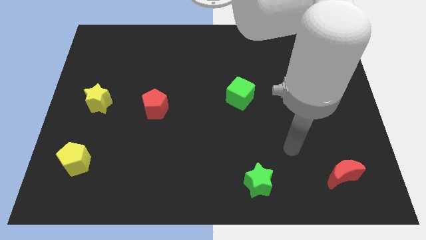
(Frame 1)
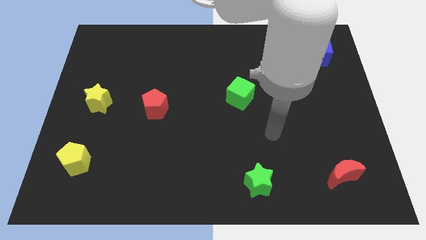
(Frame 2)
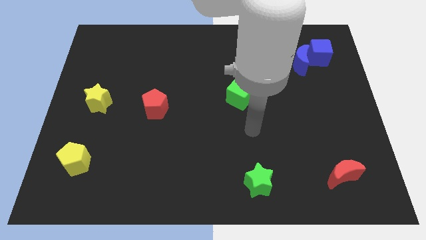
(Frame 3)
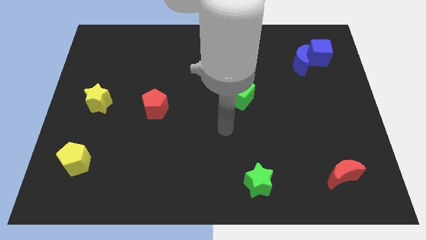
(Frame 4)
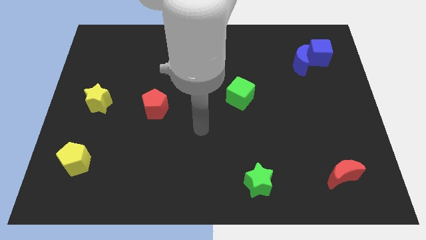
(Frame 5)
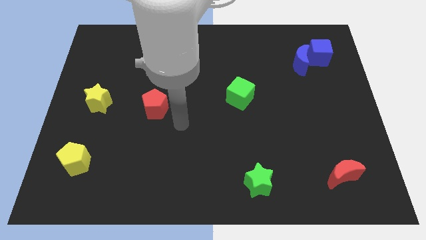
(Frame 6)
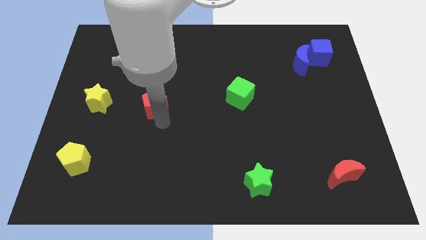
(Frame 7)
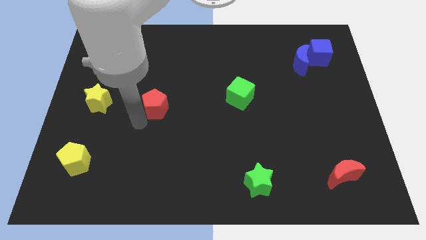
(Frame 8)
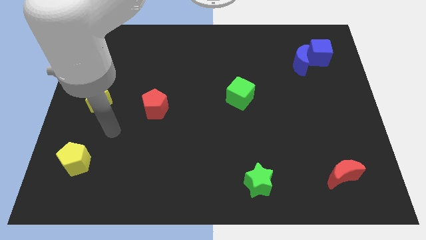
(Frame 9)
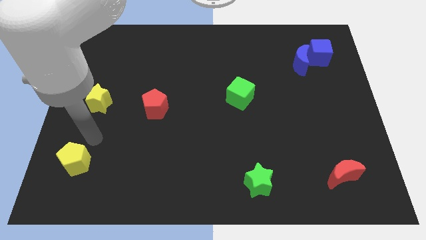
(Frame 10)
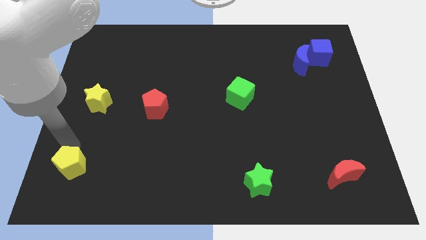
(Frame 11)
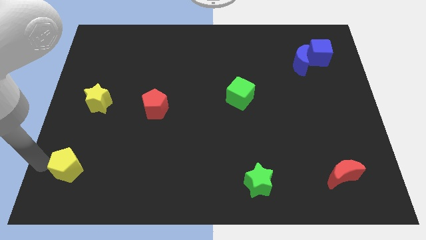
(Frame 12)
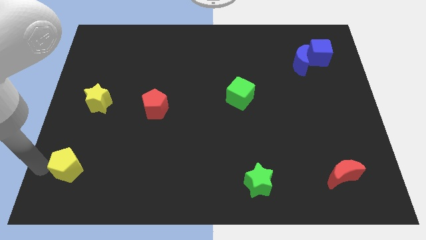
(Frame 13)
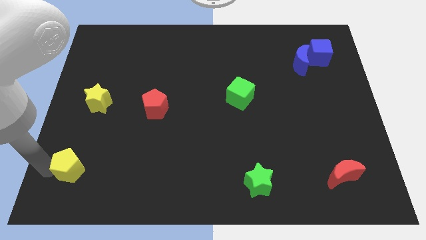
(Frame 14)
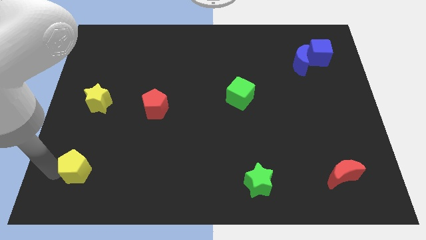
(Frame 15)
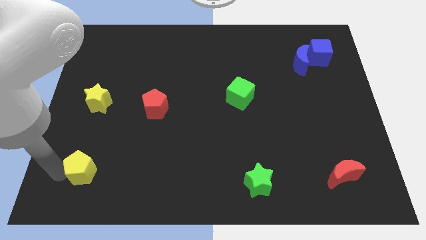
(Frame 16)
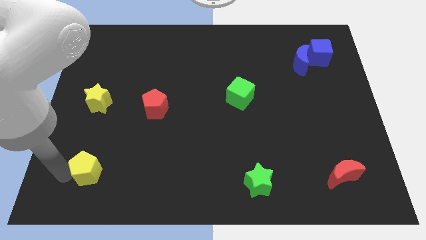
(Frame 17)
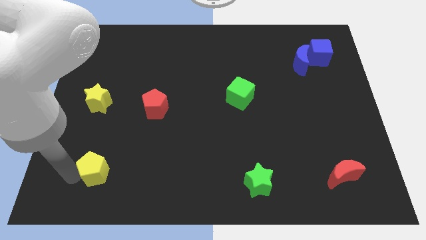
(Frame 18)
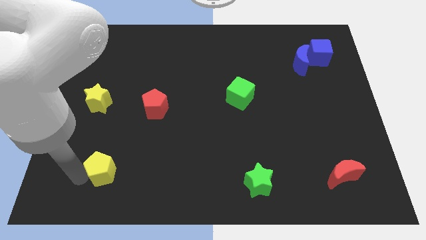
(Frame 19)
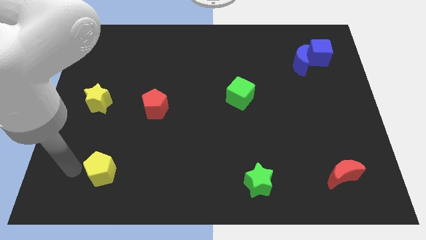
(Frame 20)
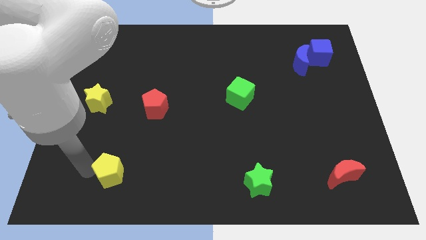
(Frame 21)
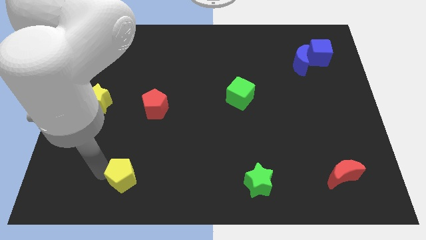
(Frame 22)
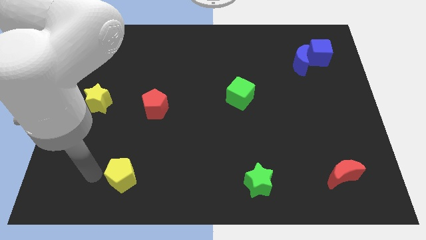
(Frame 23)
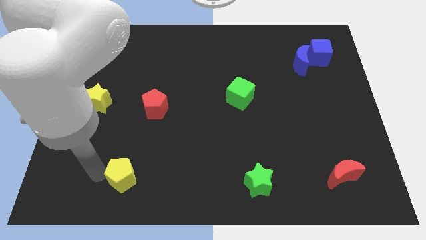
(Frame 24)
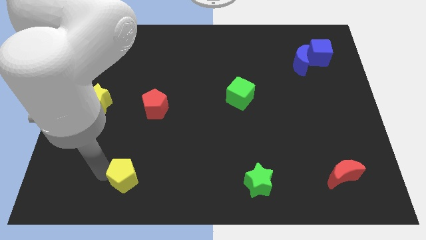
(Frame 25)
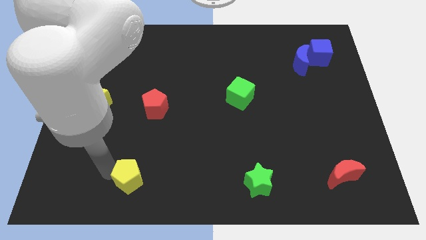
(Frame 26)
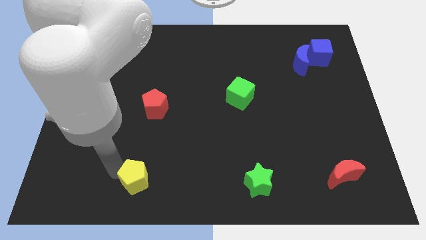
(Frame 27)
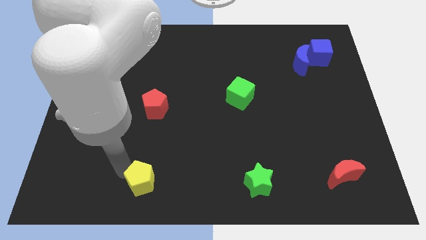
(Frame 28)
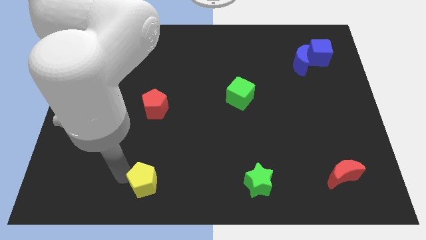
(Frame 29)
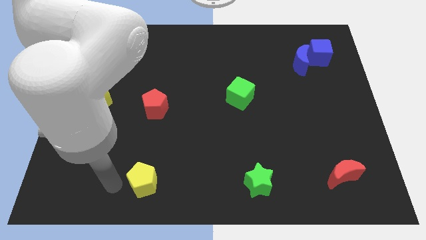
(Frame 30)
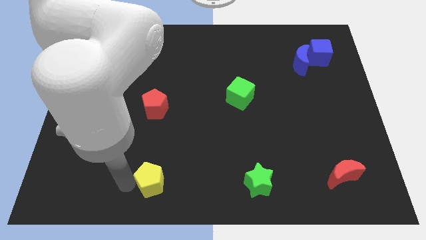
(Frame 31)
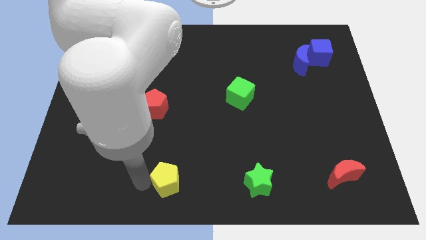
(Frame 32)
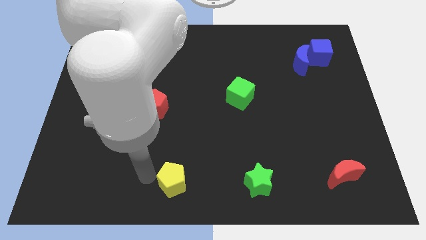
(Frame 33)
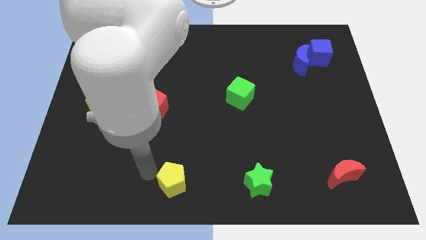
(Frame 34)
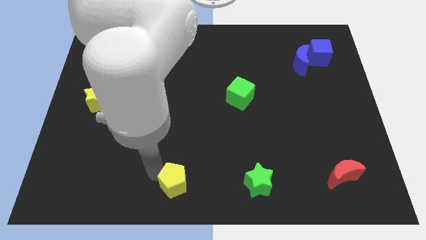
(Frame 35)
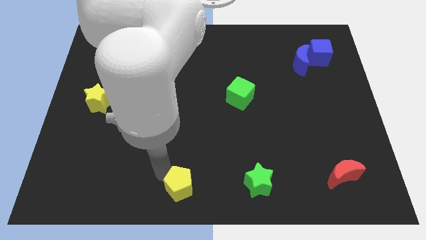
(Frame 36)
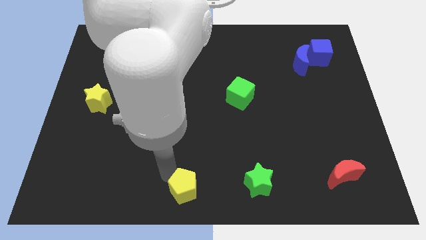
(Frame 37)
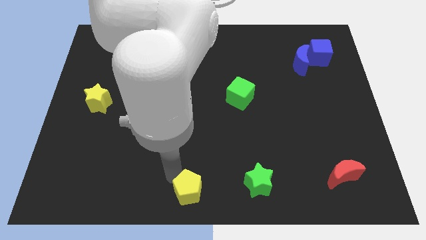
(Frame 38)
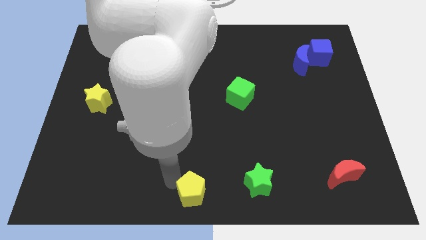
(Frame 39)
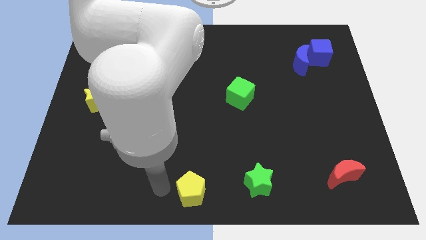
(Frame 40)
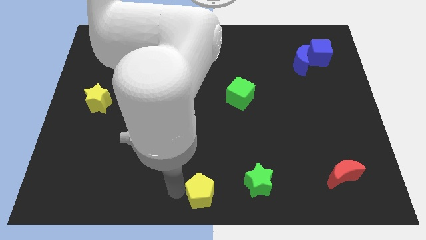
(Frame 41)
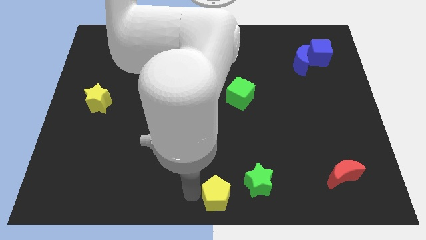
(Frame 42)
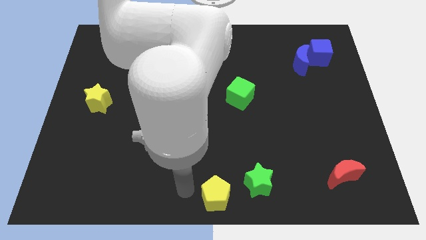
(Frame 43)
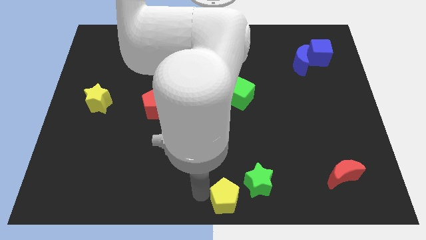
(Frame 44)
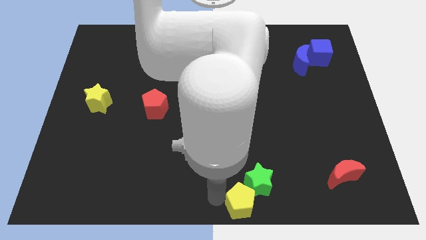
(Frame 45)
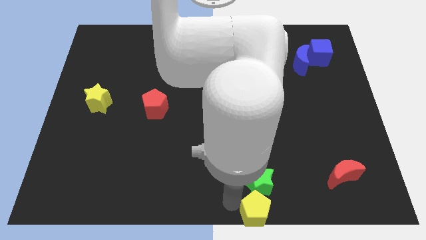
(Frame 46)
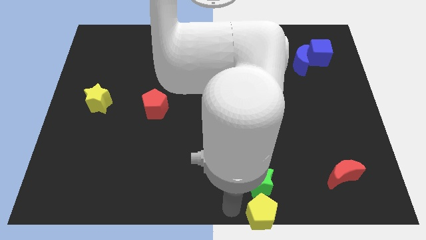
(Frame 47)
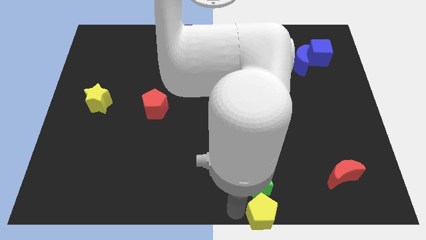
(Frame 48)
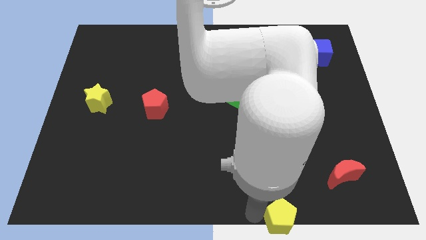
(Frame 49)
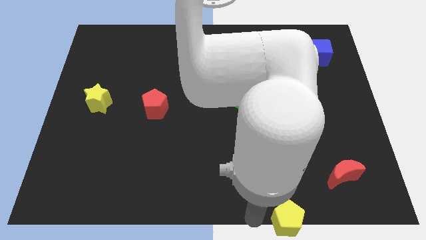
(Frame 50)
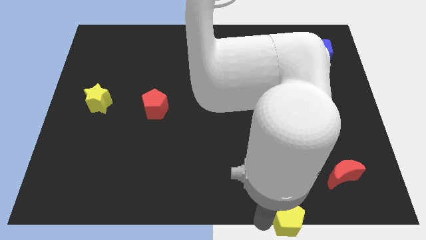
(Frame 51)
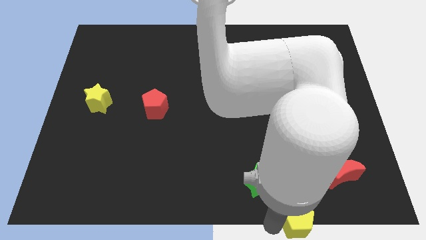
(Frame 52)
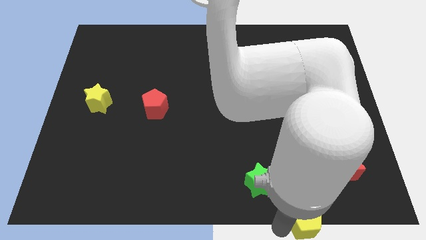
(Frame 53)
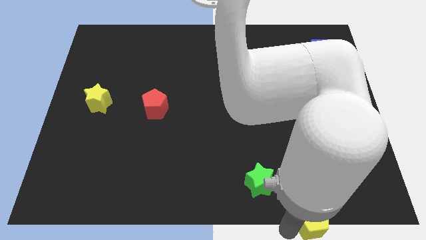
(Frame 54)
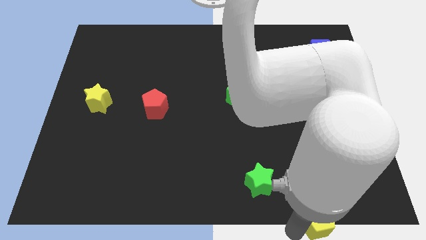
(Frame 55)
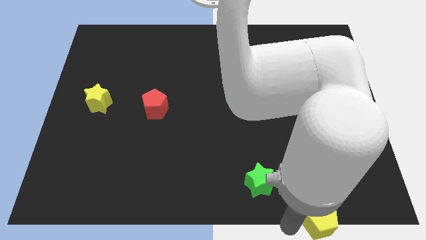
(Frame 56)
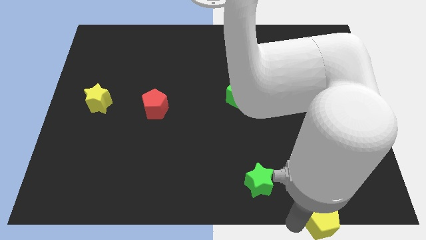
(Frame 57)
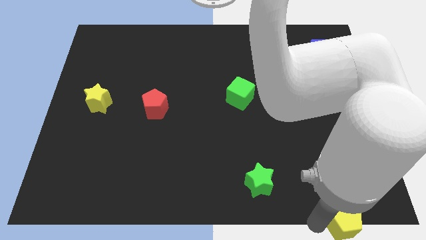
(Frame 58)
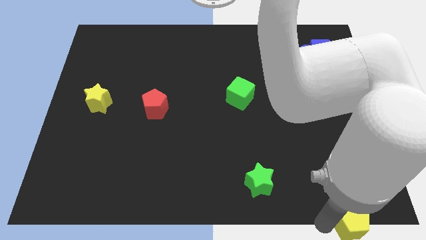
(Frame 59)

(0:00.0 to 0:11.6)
put the yellow pentagon to the bottom right corner

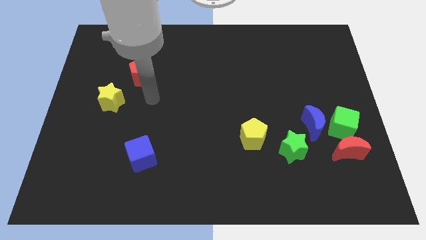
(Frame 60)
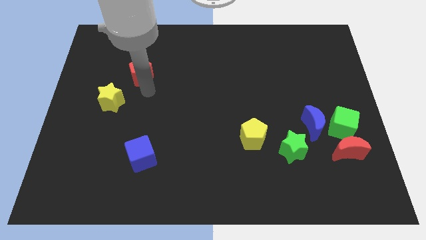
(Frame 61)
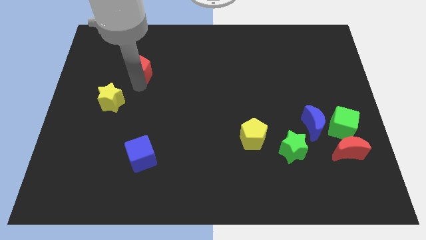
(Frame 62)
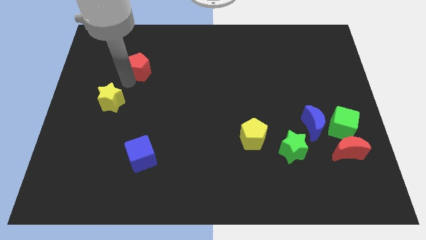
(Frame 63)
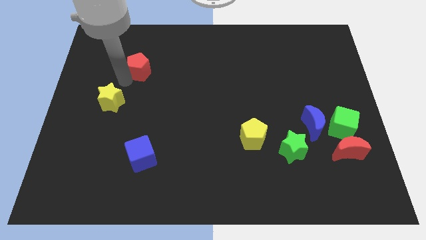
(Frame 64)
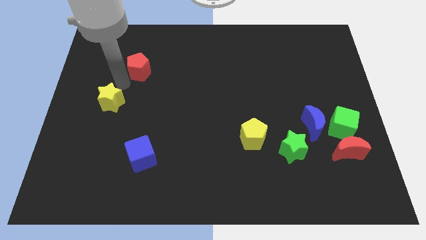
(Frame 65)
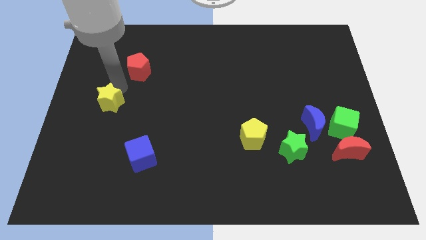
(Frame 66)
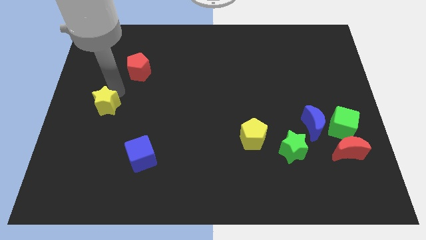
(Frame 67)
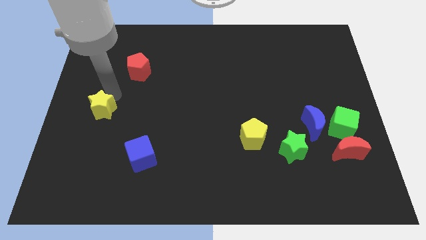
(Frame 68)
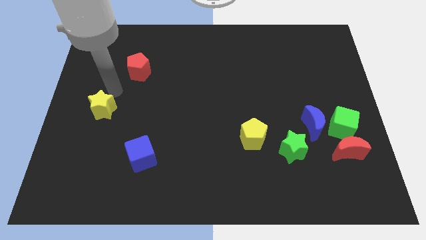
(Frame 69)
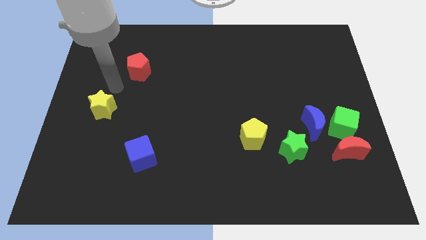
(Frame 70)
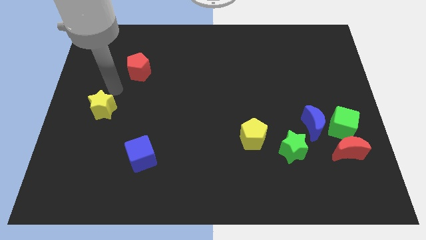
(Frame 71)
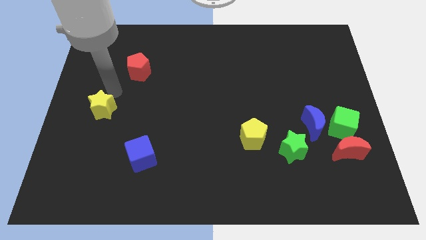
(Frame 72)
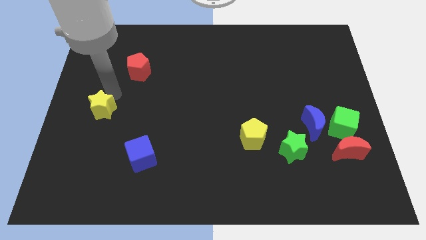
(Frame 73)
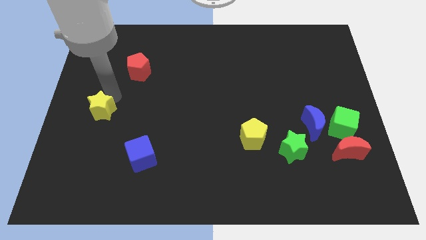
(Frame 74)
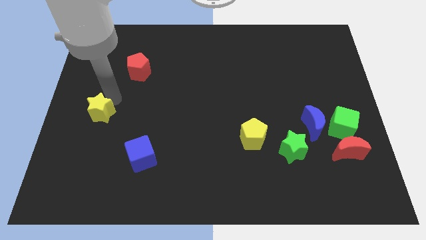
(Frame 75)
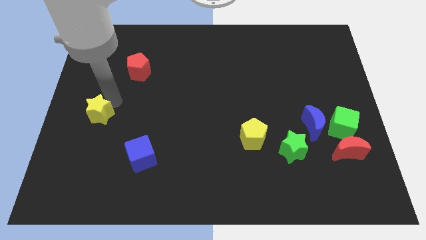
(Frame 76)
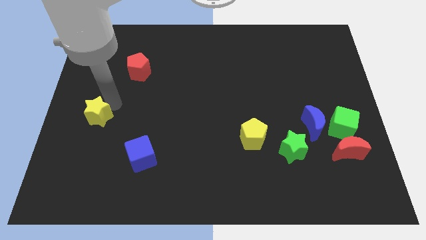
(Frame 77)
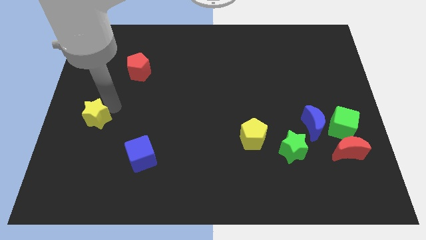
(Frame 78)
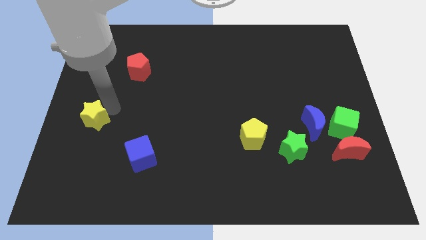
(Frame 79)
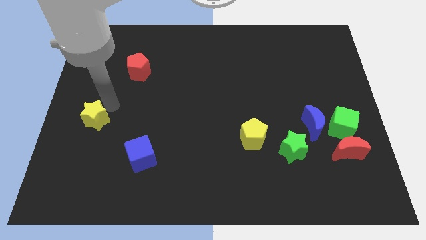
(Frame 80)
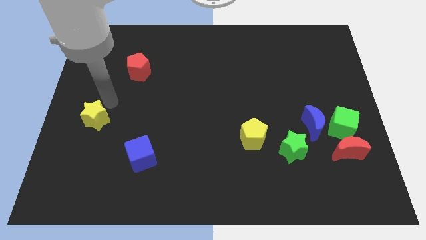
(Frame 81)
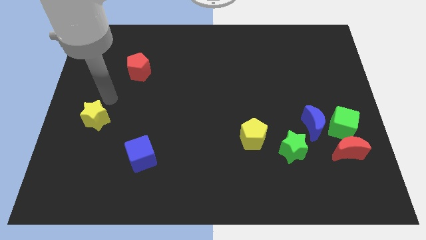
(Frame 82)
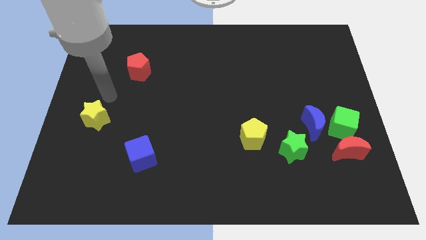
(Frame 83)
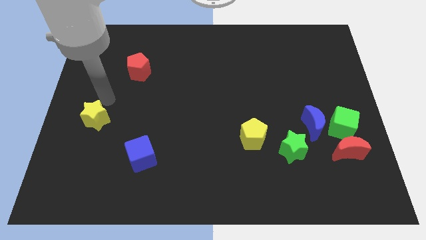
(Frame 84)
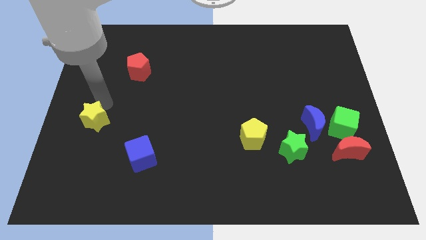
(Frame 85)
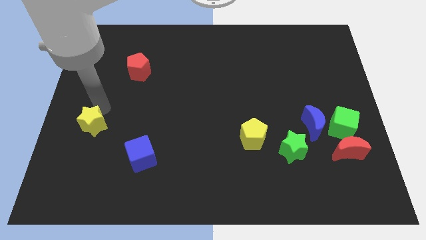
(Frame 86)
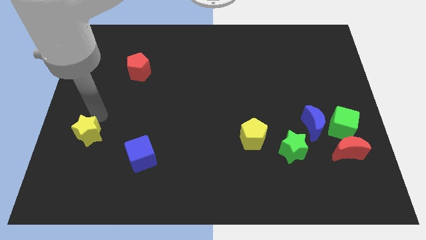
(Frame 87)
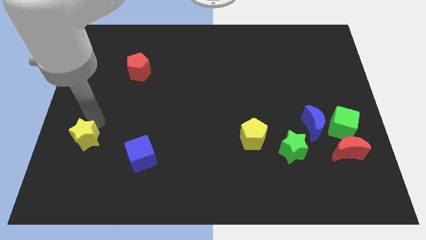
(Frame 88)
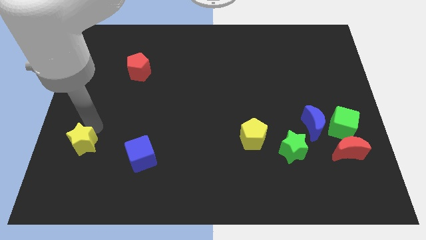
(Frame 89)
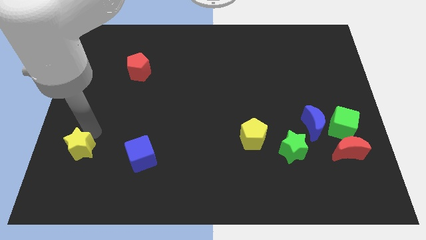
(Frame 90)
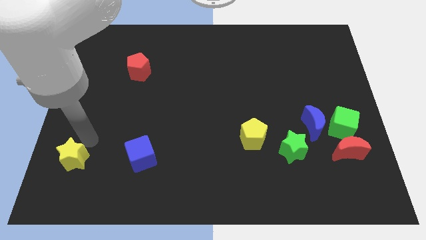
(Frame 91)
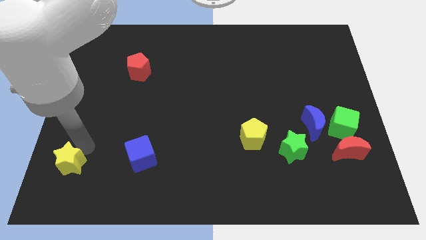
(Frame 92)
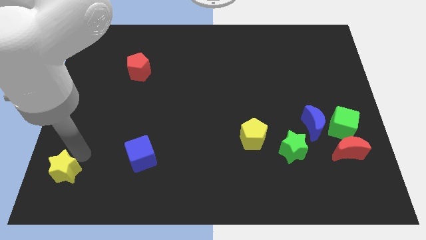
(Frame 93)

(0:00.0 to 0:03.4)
put the yellow star to the bottom left corner
